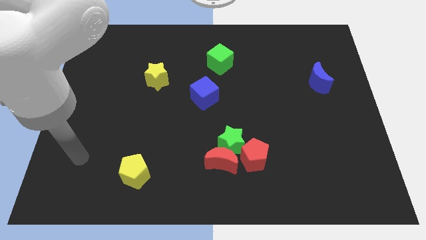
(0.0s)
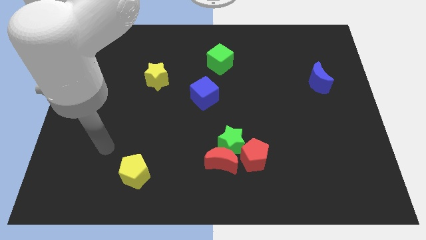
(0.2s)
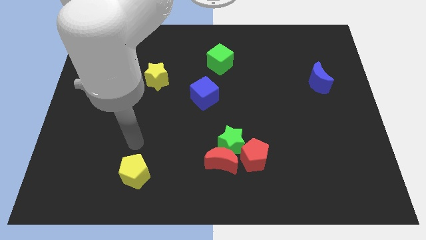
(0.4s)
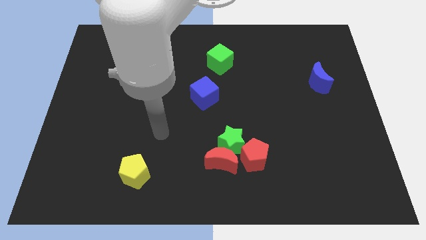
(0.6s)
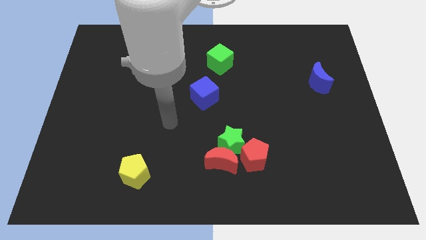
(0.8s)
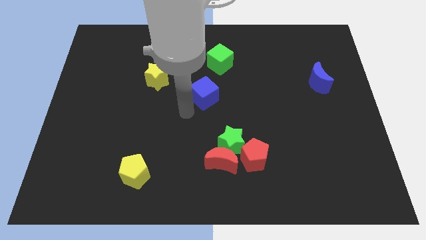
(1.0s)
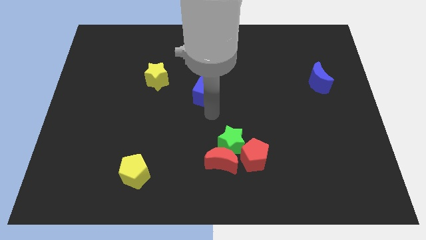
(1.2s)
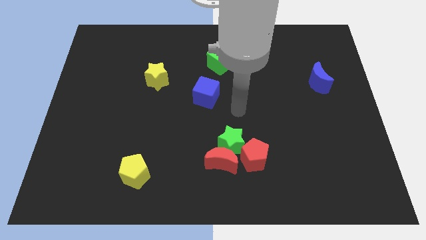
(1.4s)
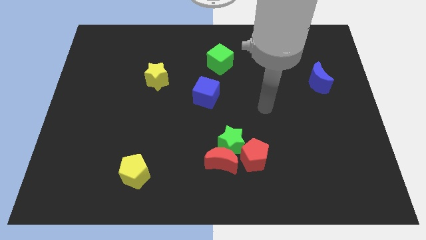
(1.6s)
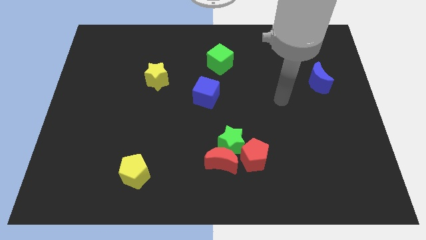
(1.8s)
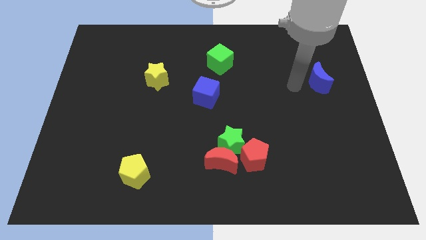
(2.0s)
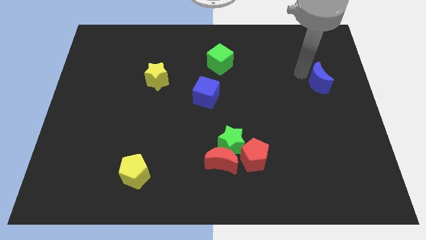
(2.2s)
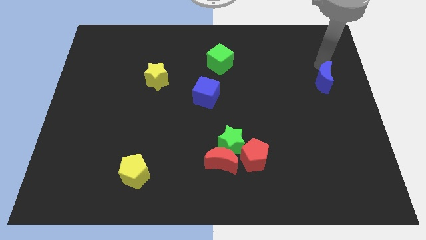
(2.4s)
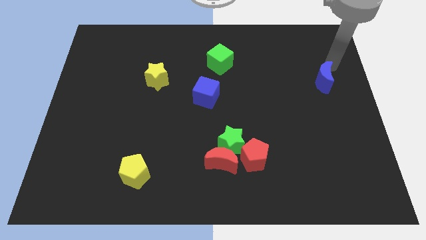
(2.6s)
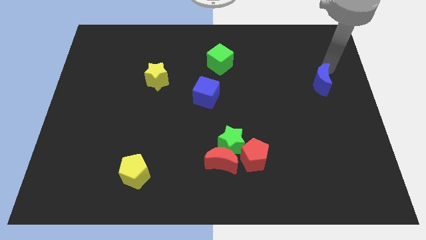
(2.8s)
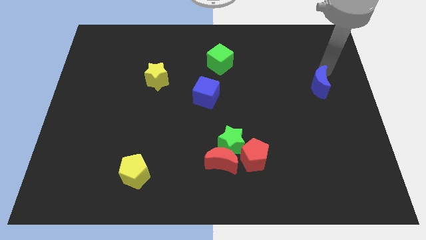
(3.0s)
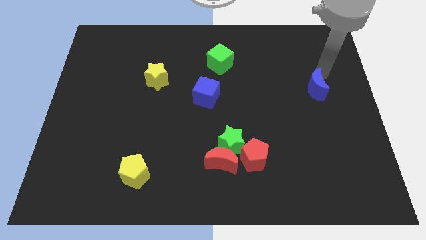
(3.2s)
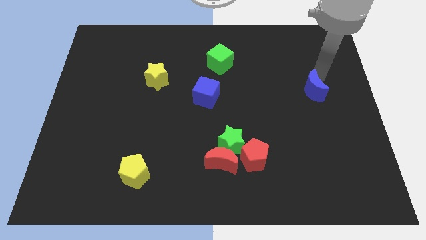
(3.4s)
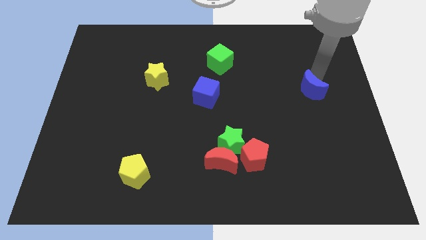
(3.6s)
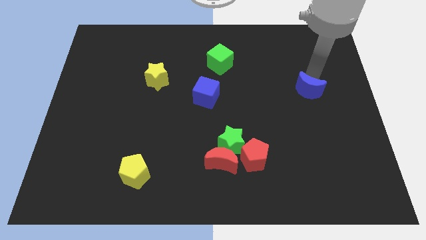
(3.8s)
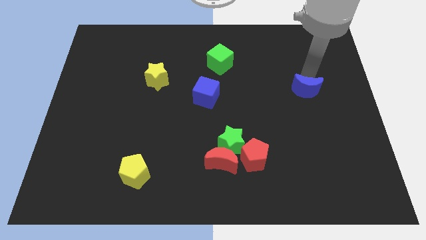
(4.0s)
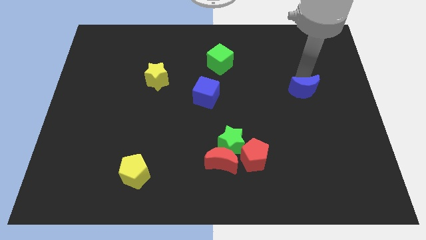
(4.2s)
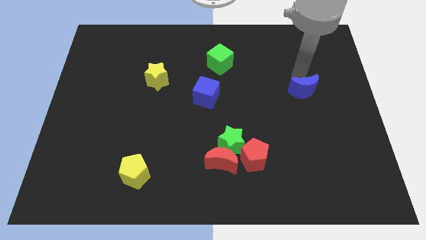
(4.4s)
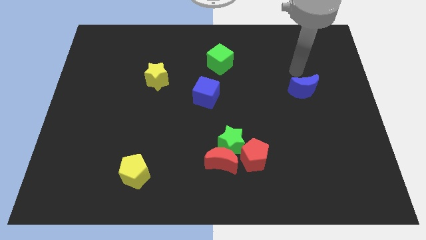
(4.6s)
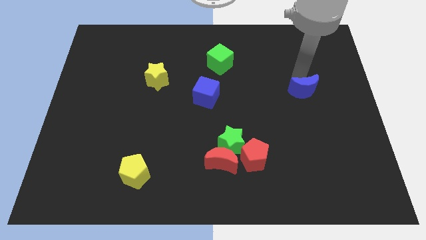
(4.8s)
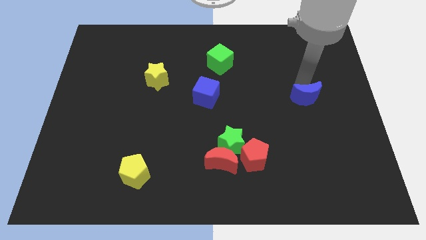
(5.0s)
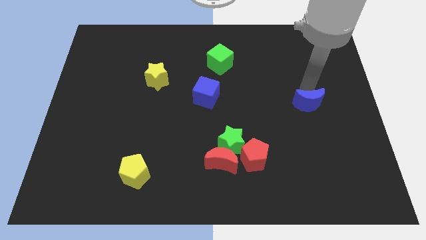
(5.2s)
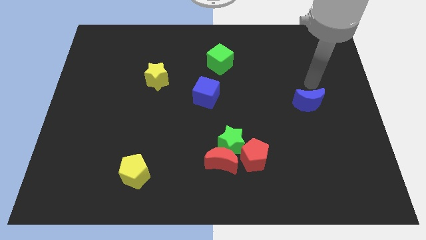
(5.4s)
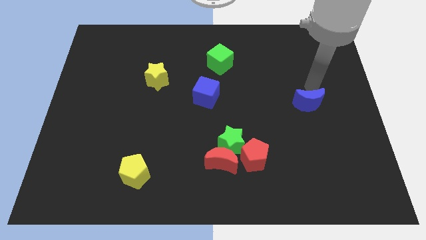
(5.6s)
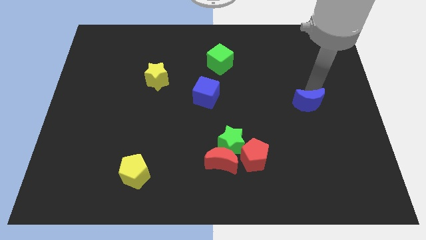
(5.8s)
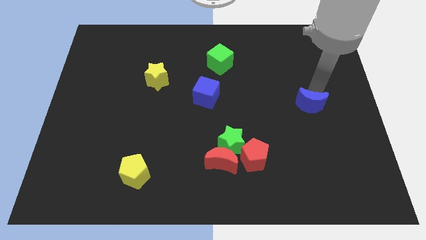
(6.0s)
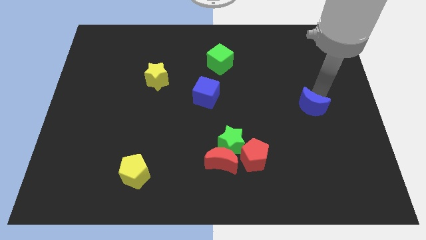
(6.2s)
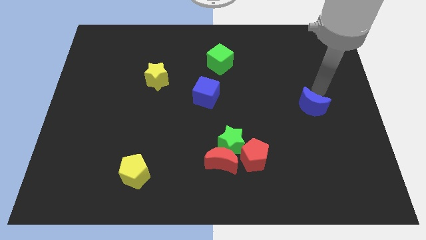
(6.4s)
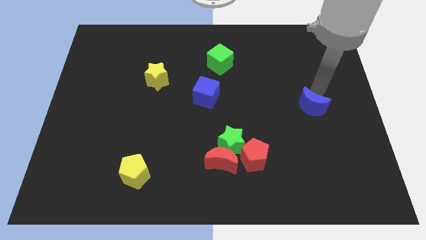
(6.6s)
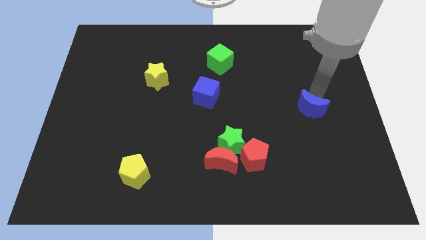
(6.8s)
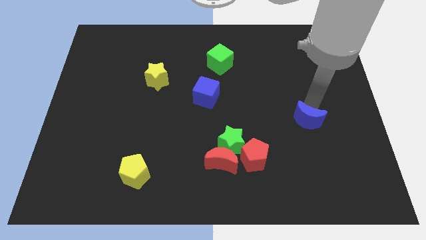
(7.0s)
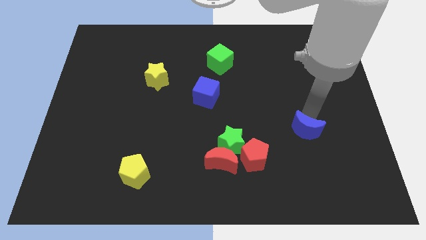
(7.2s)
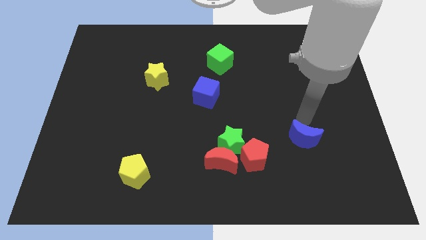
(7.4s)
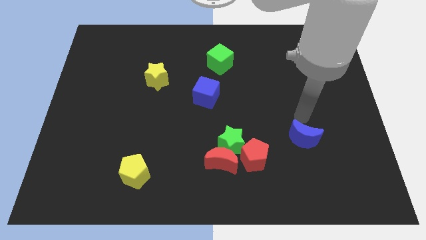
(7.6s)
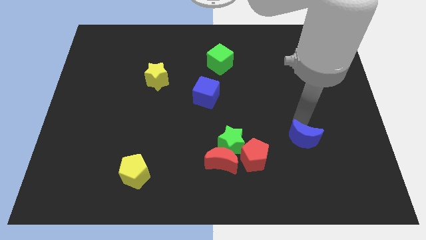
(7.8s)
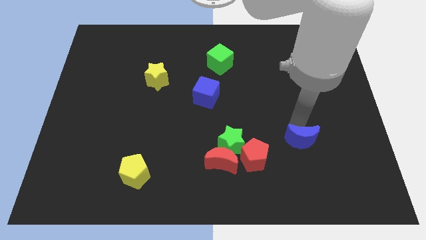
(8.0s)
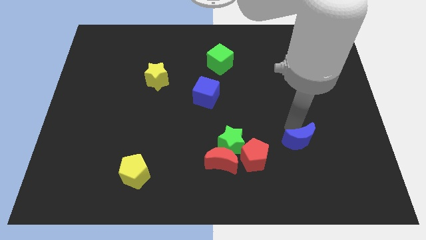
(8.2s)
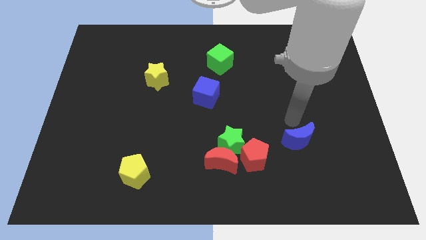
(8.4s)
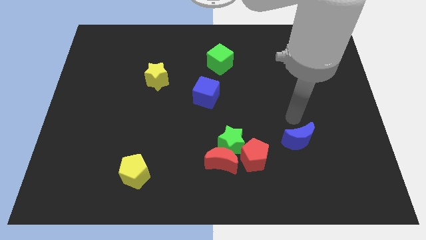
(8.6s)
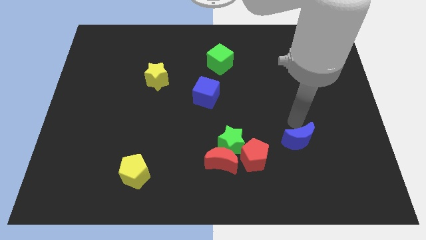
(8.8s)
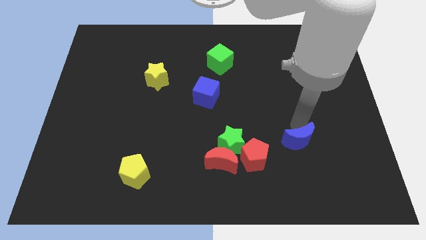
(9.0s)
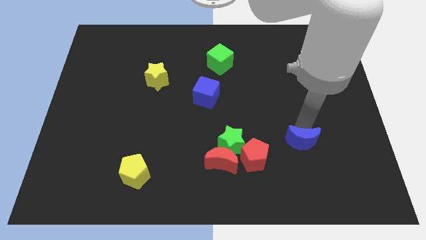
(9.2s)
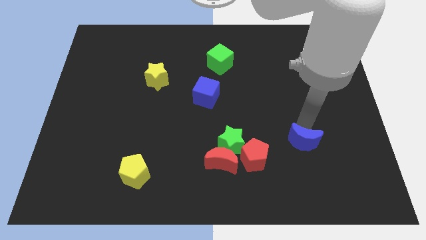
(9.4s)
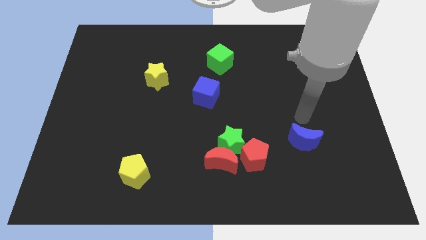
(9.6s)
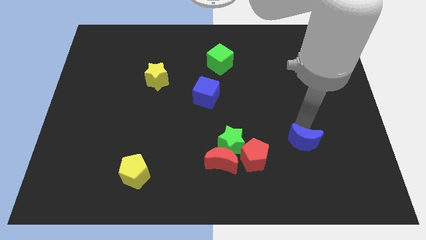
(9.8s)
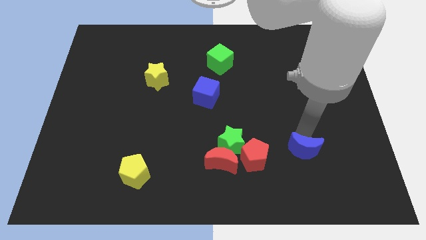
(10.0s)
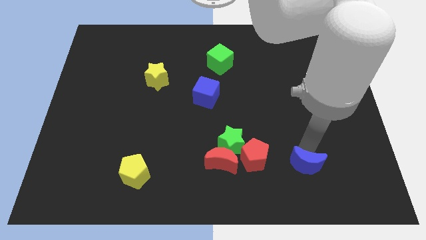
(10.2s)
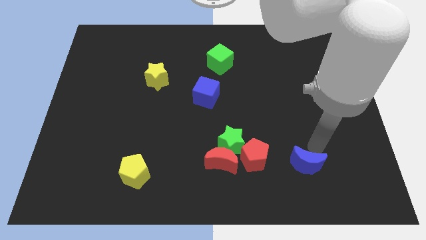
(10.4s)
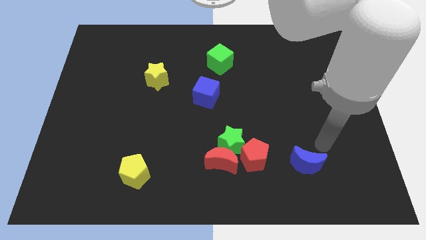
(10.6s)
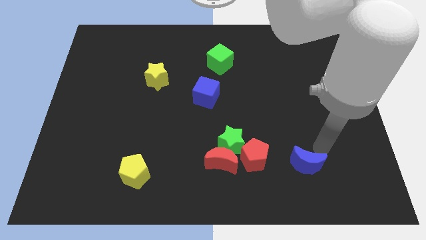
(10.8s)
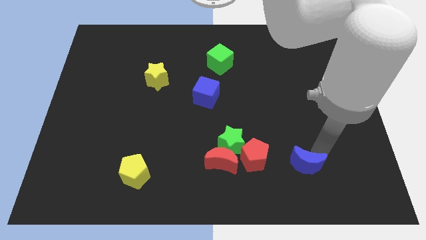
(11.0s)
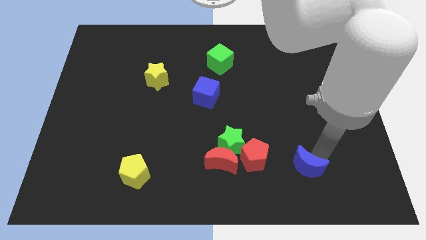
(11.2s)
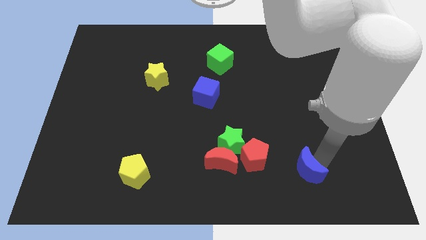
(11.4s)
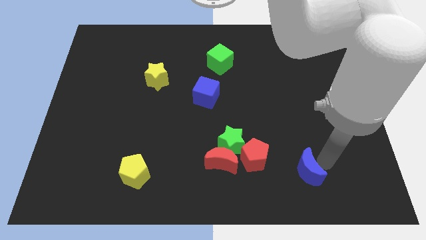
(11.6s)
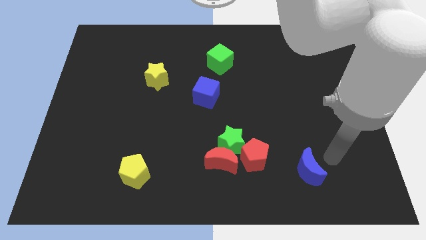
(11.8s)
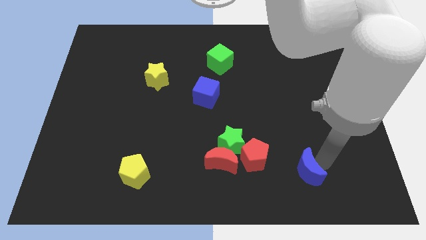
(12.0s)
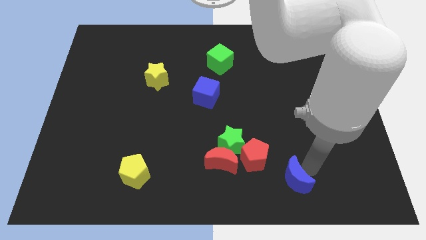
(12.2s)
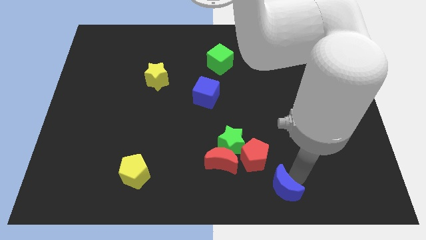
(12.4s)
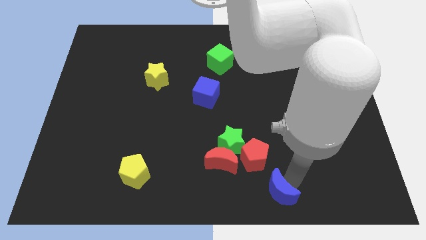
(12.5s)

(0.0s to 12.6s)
slide the blue moon to the bottom

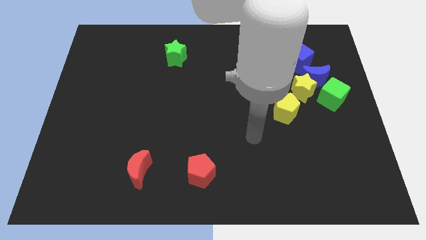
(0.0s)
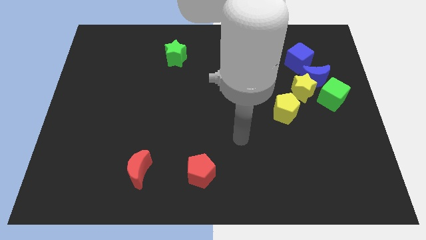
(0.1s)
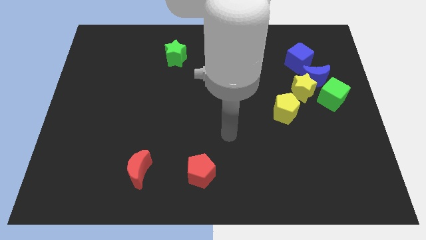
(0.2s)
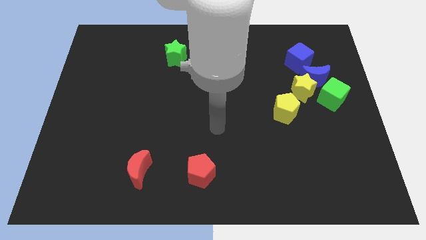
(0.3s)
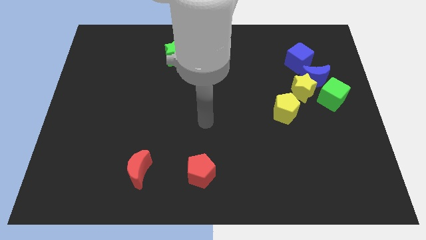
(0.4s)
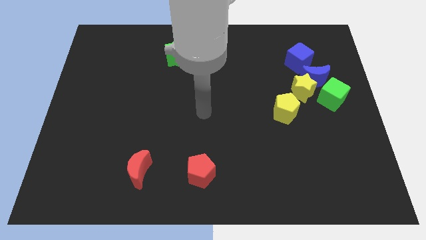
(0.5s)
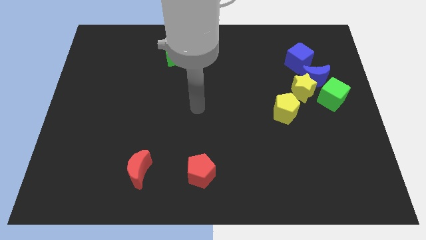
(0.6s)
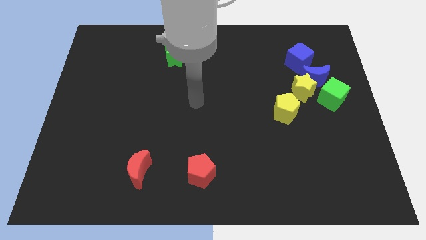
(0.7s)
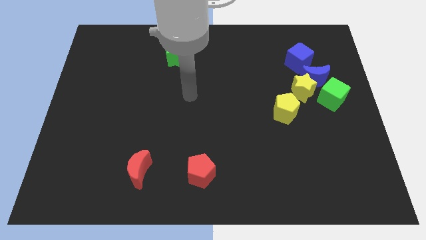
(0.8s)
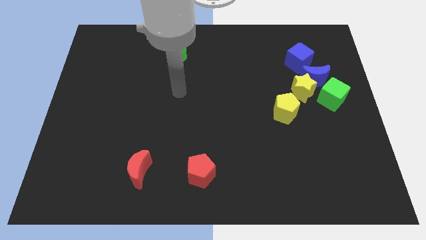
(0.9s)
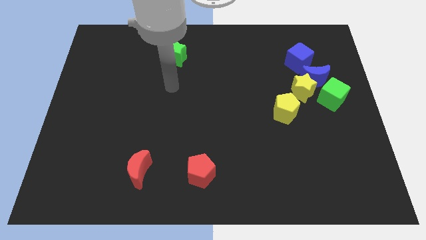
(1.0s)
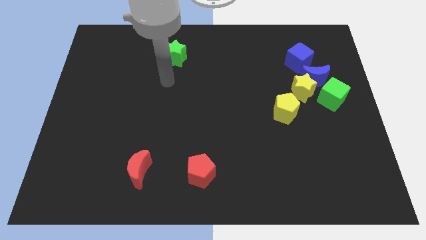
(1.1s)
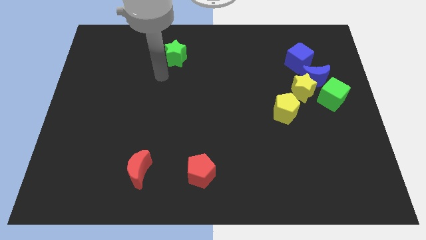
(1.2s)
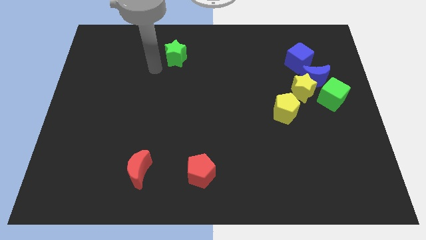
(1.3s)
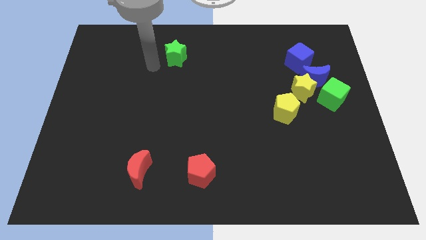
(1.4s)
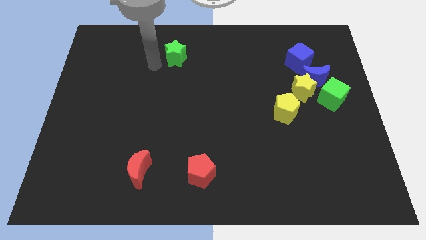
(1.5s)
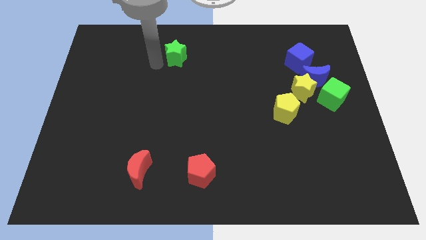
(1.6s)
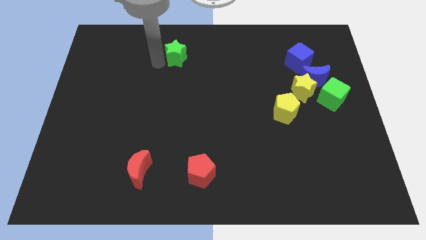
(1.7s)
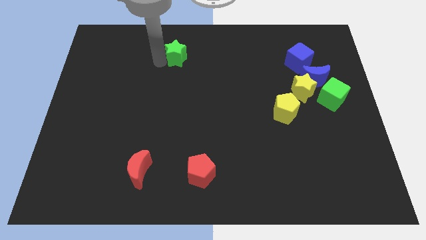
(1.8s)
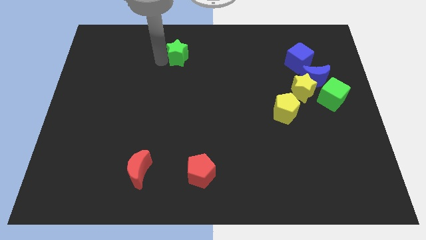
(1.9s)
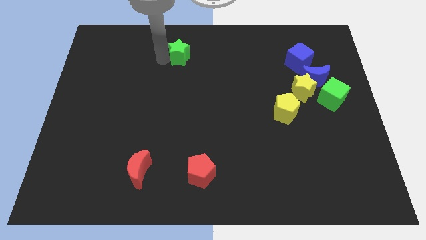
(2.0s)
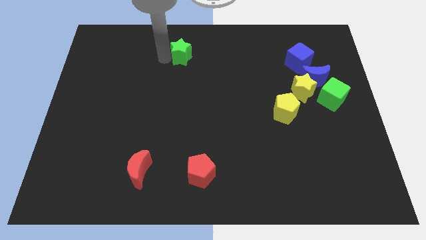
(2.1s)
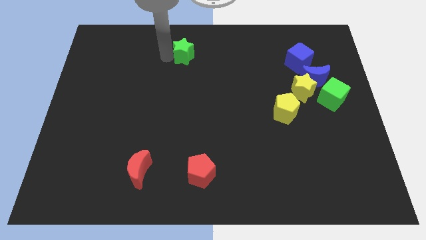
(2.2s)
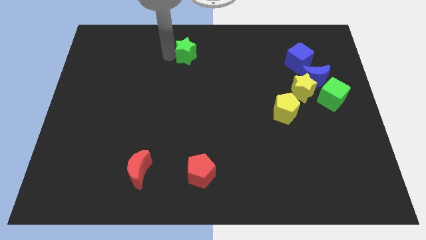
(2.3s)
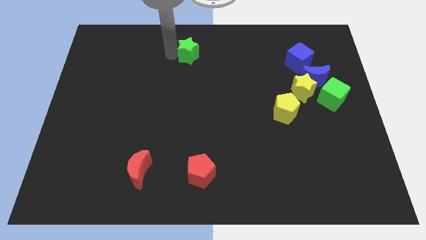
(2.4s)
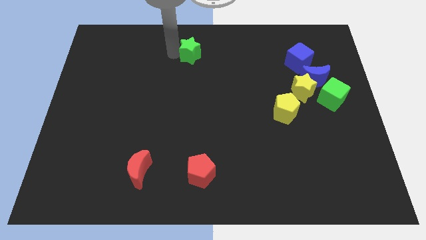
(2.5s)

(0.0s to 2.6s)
move the green star to the towards your base
